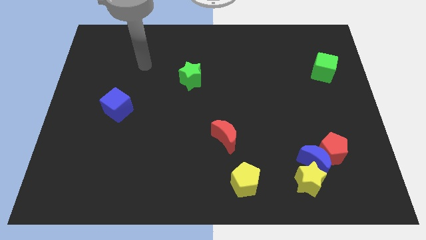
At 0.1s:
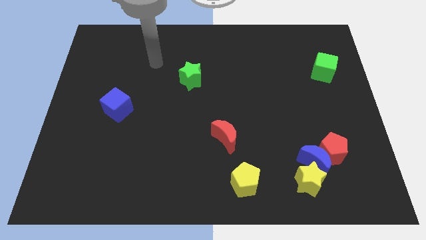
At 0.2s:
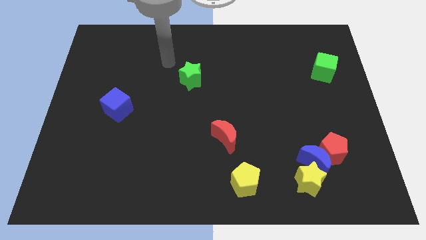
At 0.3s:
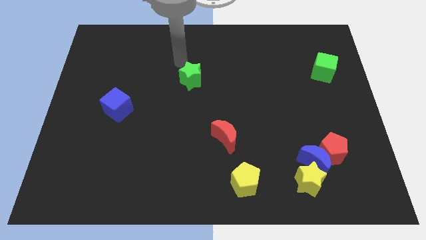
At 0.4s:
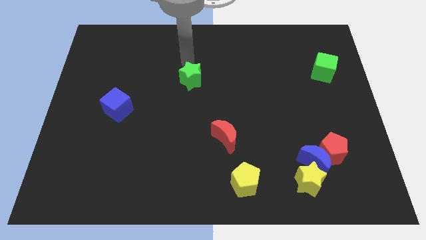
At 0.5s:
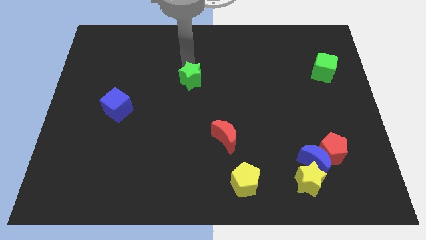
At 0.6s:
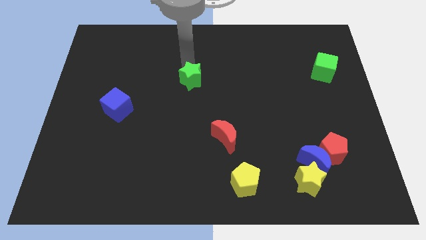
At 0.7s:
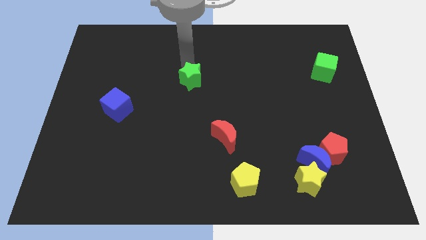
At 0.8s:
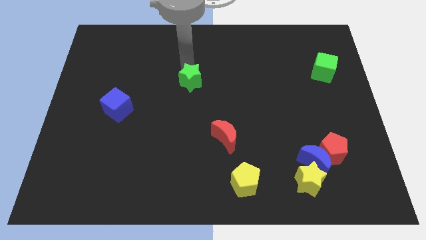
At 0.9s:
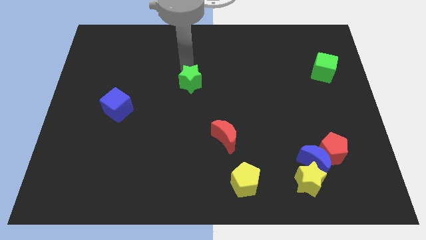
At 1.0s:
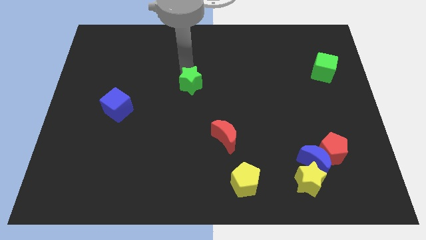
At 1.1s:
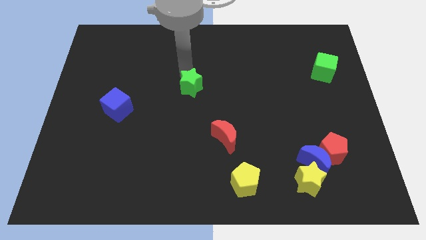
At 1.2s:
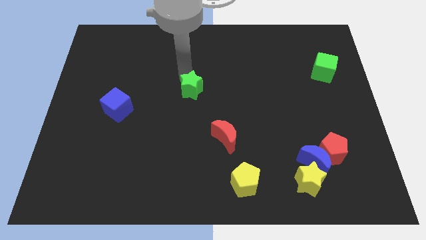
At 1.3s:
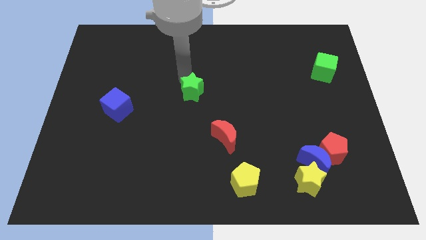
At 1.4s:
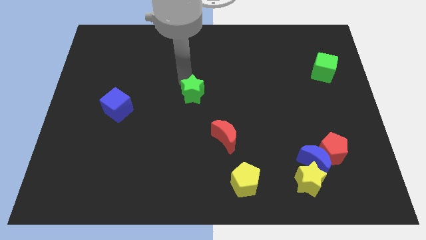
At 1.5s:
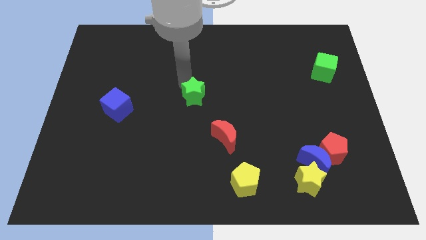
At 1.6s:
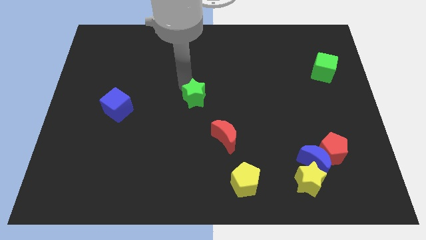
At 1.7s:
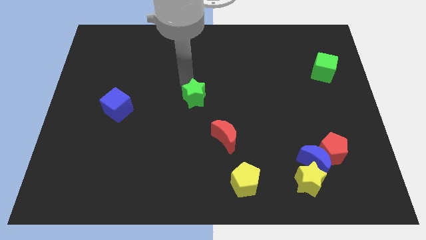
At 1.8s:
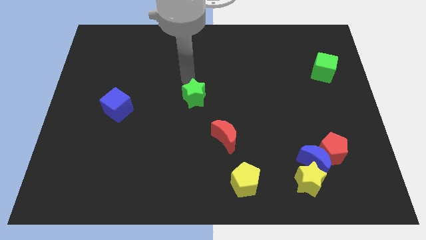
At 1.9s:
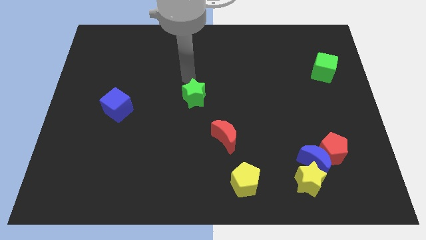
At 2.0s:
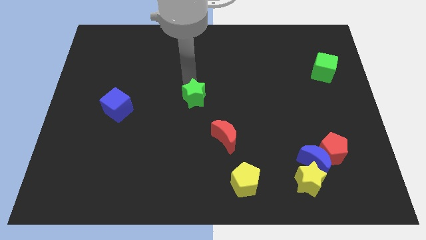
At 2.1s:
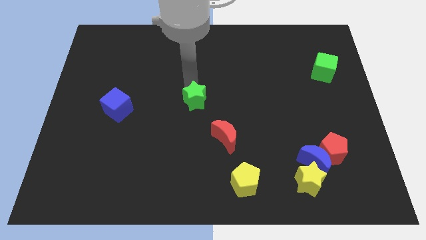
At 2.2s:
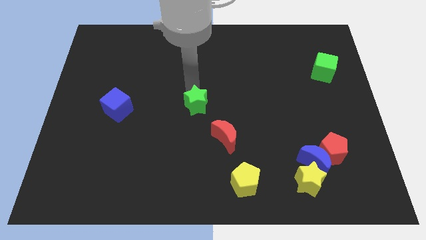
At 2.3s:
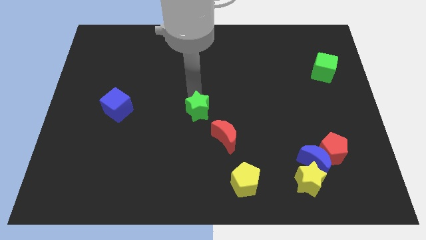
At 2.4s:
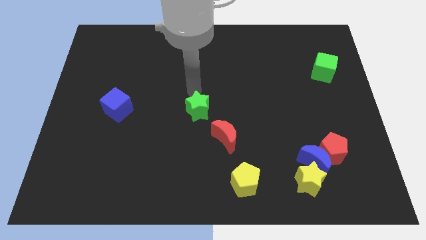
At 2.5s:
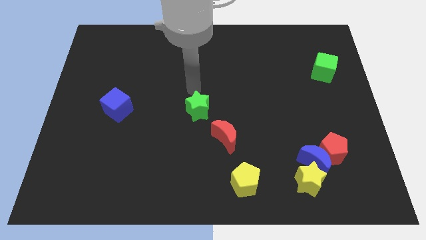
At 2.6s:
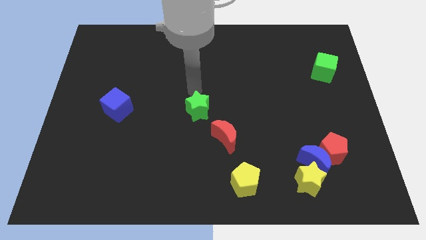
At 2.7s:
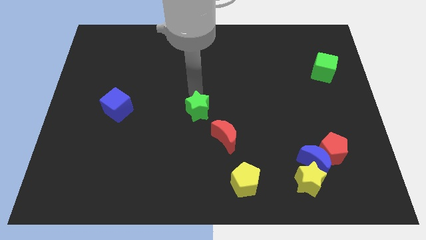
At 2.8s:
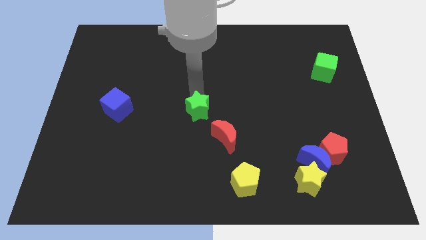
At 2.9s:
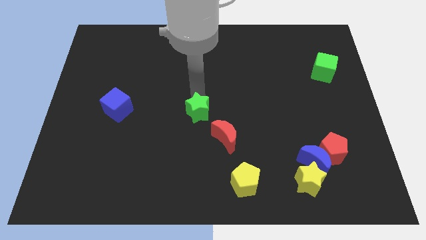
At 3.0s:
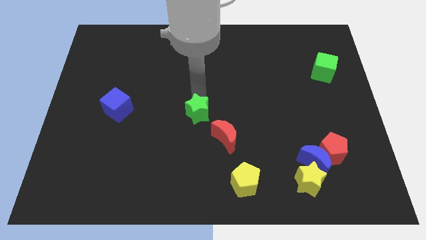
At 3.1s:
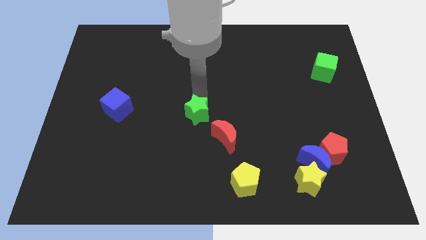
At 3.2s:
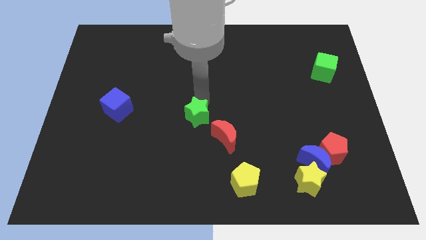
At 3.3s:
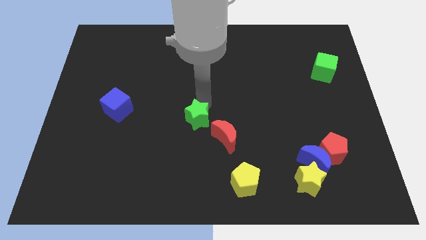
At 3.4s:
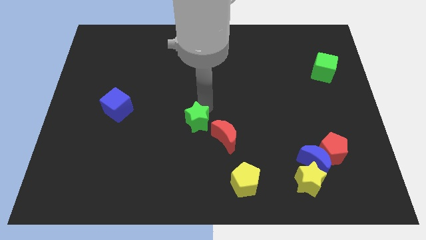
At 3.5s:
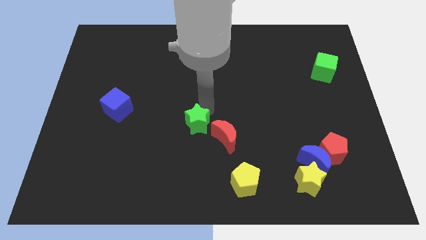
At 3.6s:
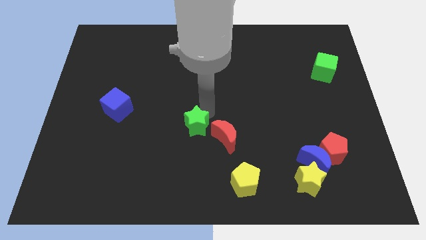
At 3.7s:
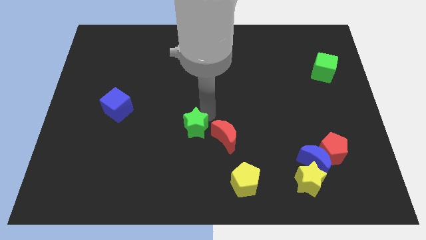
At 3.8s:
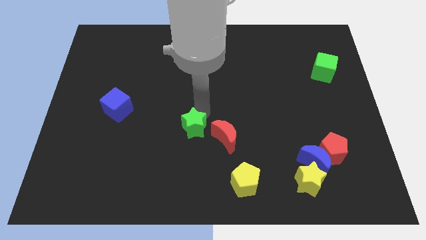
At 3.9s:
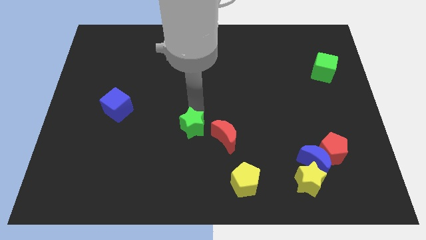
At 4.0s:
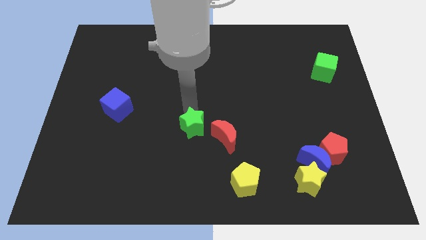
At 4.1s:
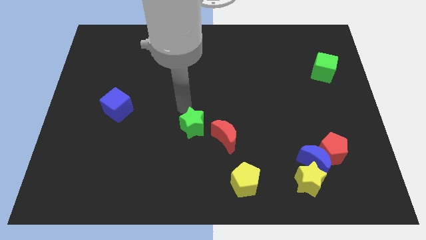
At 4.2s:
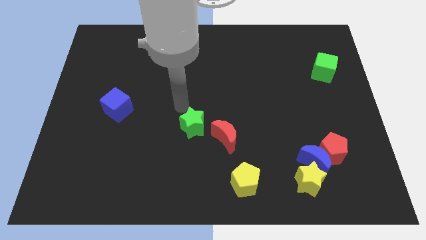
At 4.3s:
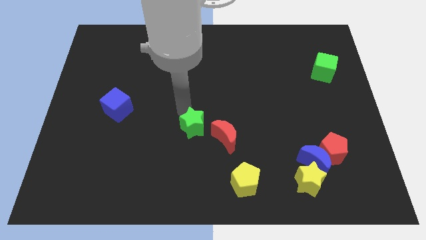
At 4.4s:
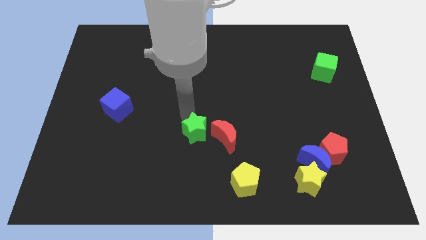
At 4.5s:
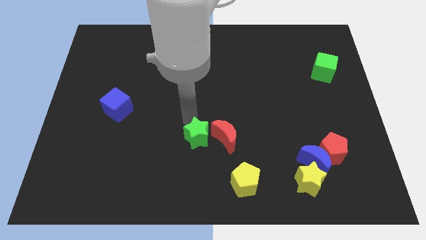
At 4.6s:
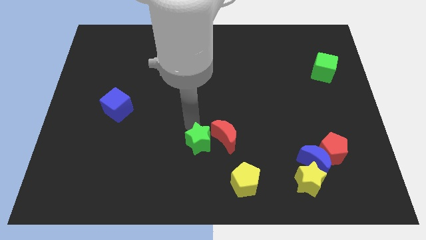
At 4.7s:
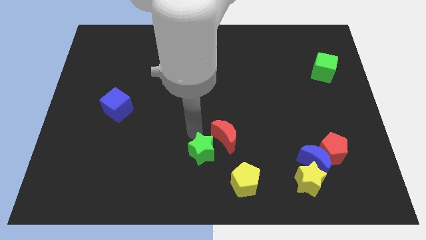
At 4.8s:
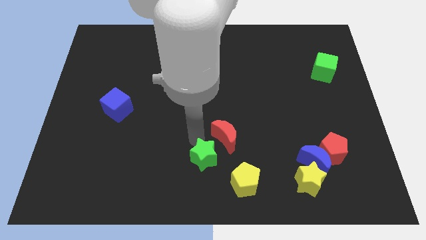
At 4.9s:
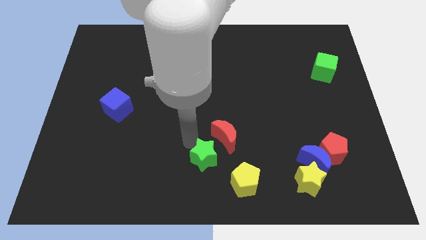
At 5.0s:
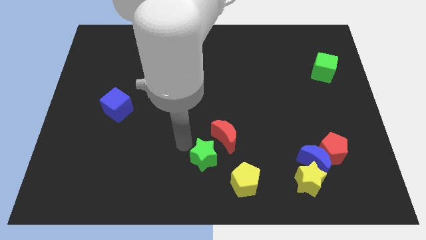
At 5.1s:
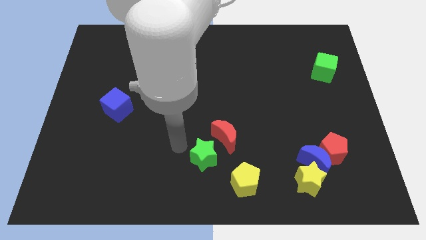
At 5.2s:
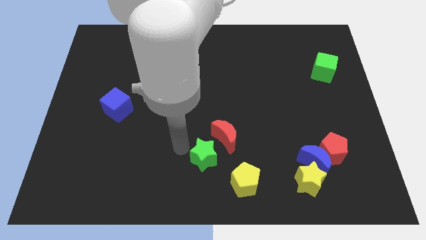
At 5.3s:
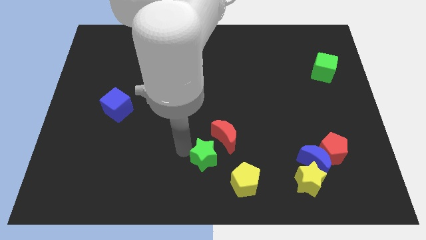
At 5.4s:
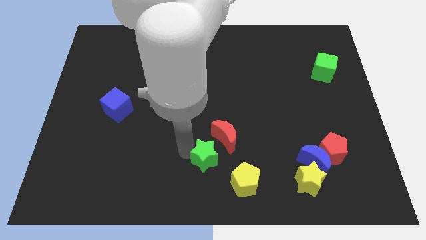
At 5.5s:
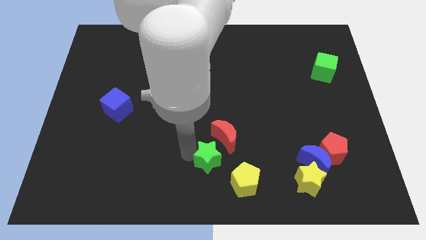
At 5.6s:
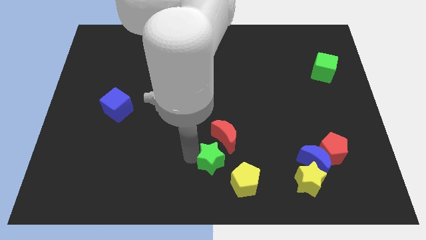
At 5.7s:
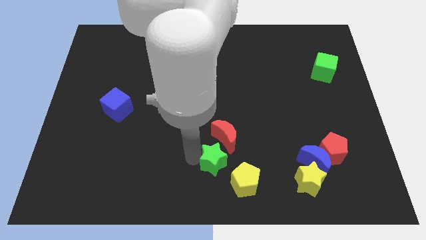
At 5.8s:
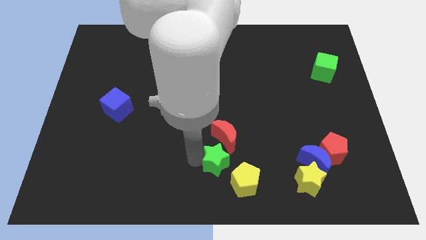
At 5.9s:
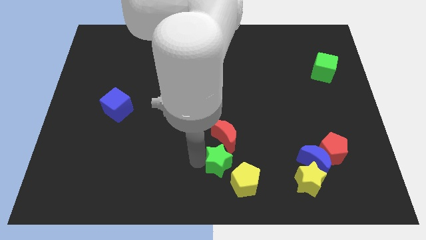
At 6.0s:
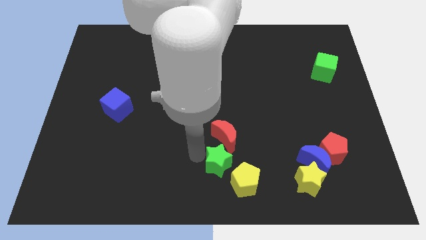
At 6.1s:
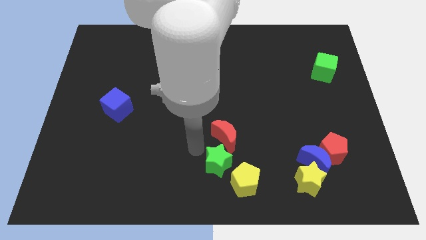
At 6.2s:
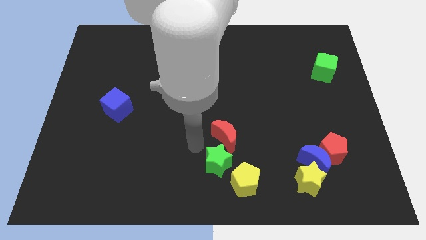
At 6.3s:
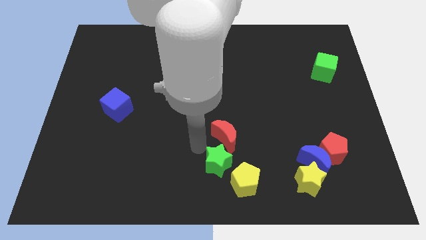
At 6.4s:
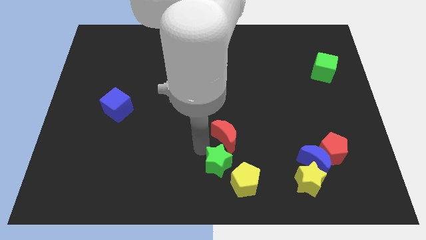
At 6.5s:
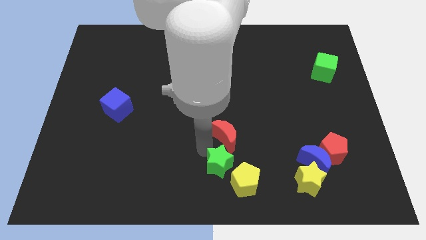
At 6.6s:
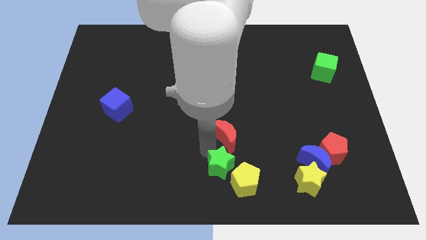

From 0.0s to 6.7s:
move the green star towards the yellow pentagon
